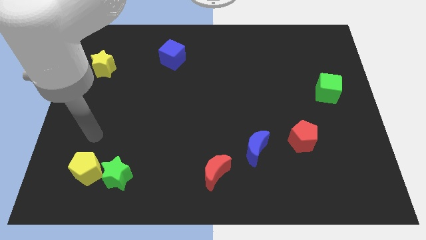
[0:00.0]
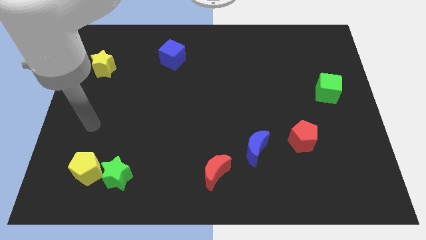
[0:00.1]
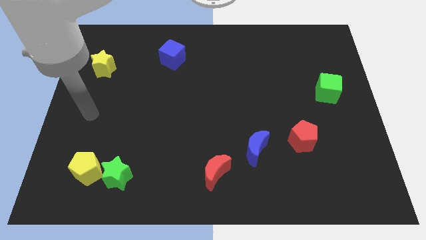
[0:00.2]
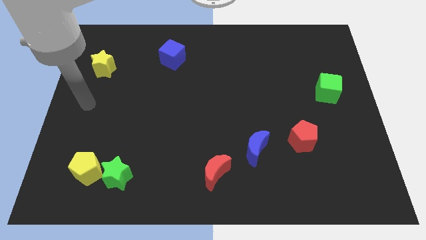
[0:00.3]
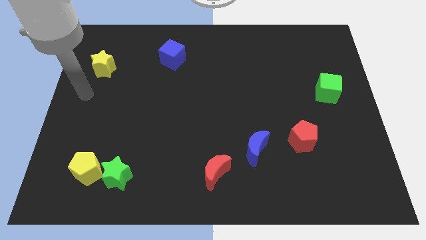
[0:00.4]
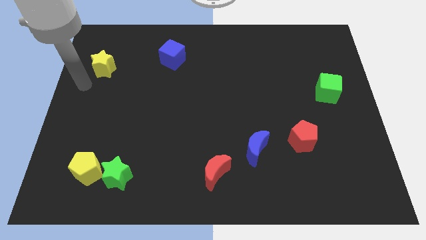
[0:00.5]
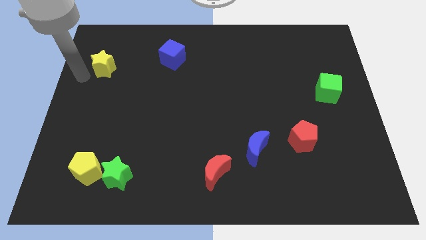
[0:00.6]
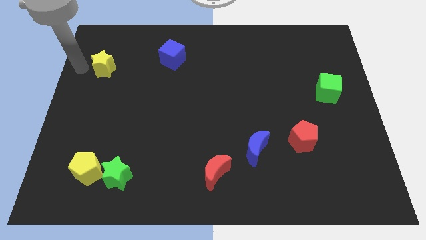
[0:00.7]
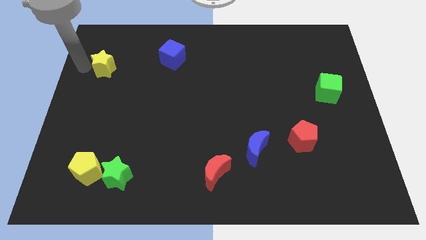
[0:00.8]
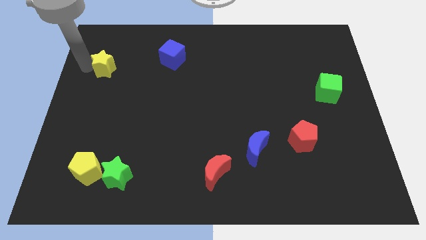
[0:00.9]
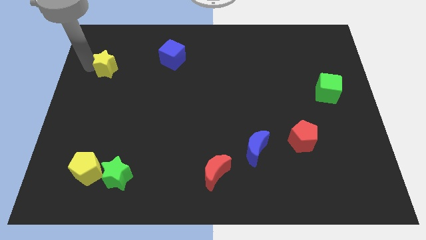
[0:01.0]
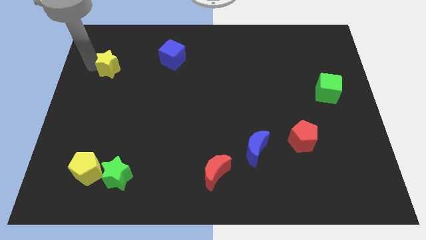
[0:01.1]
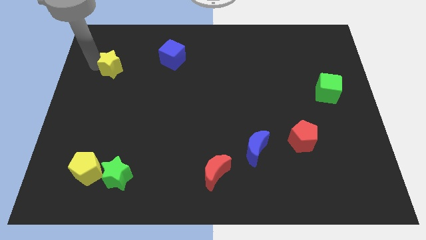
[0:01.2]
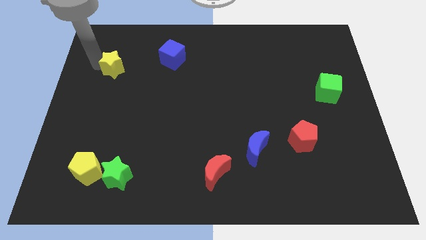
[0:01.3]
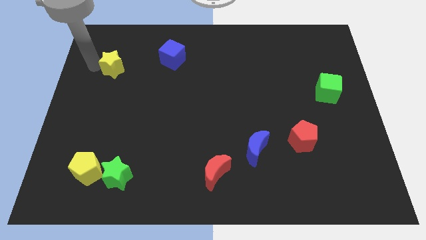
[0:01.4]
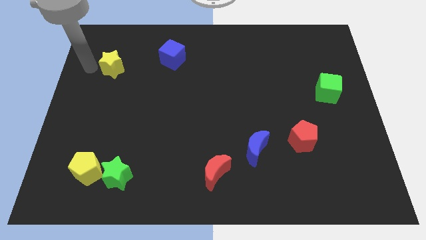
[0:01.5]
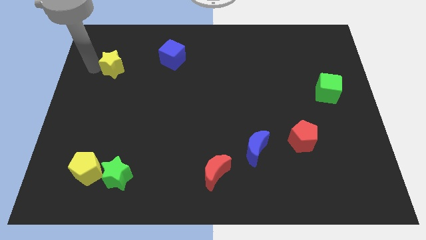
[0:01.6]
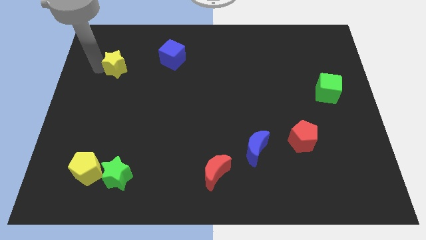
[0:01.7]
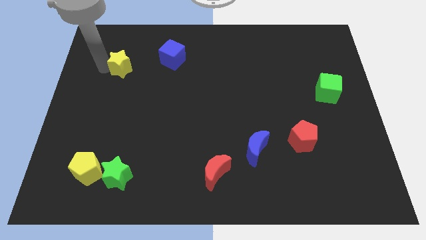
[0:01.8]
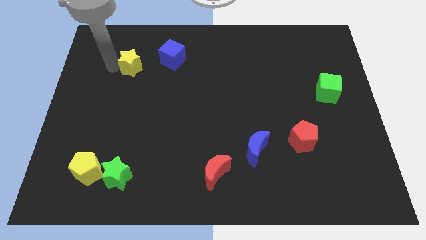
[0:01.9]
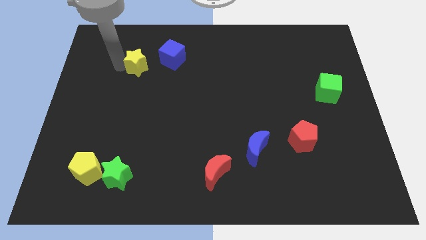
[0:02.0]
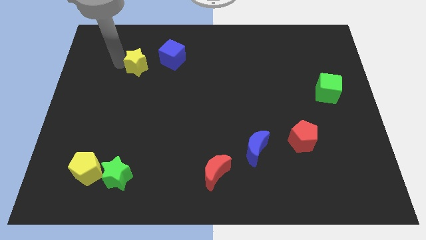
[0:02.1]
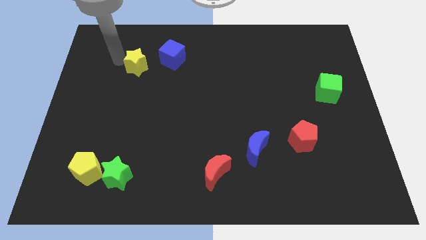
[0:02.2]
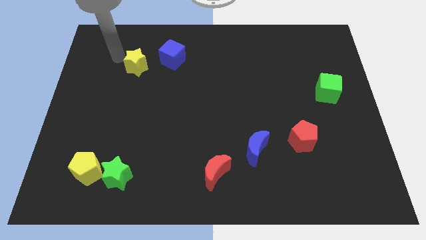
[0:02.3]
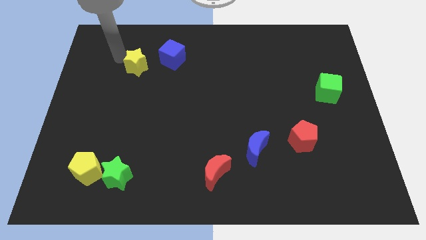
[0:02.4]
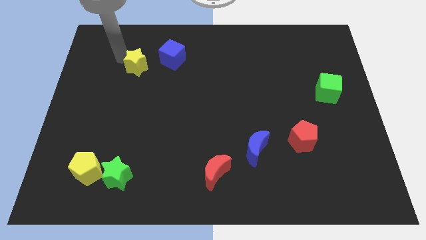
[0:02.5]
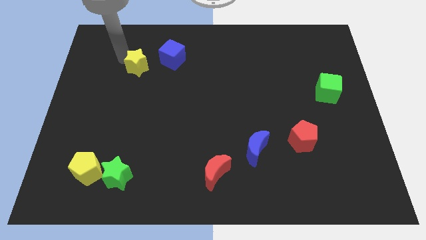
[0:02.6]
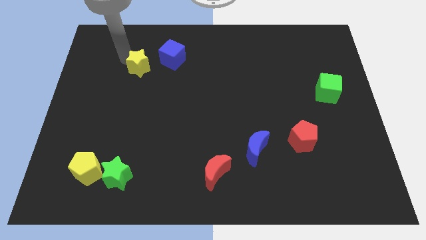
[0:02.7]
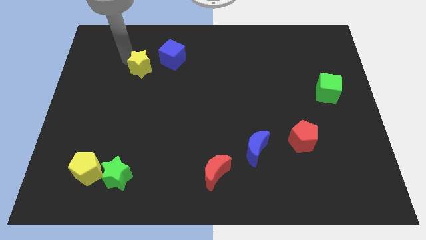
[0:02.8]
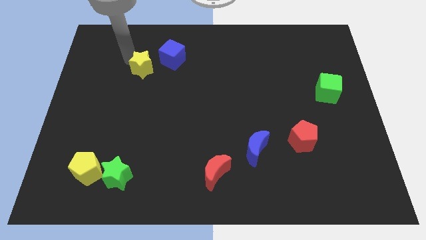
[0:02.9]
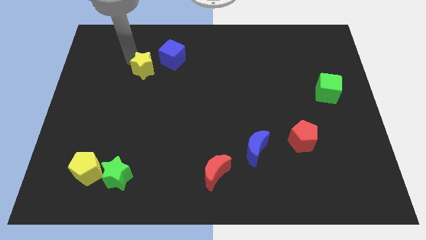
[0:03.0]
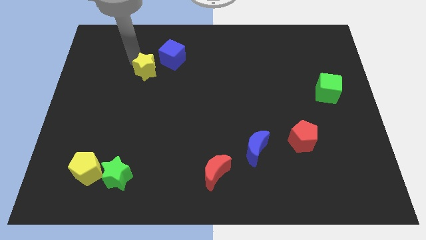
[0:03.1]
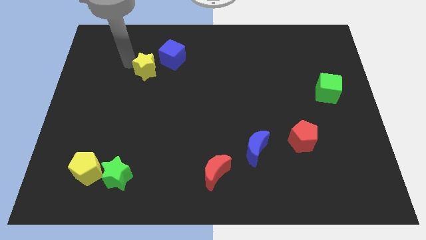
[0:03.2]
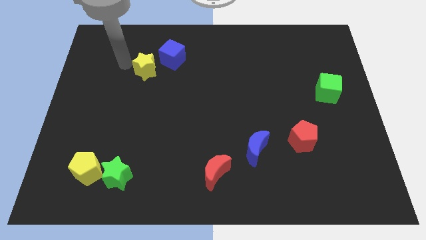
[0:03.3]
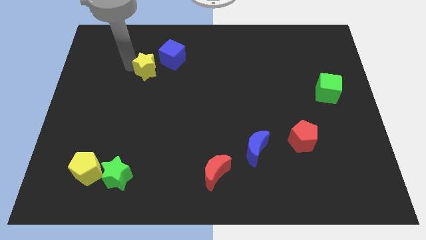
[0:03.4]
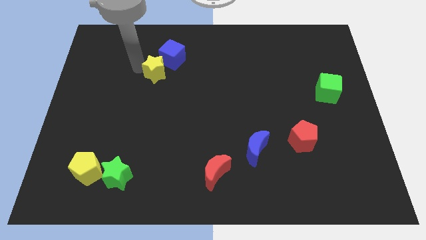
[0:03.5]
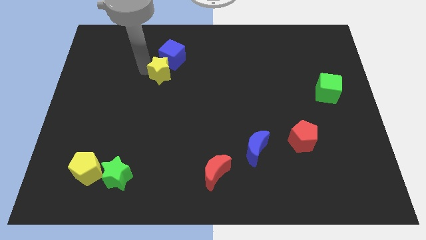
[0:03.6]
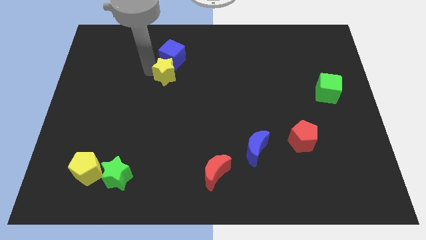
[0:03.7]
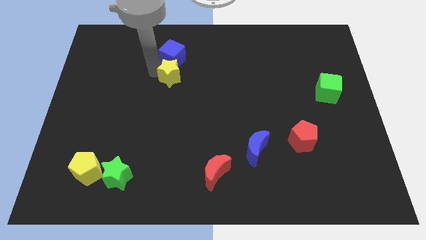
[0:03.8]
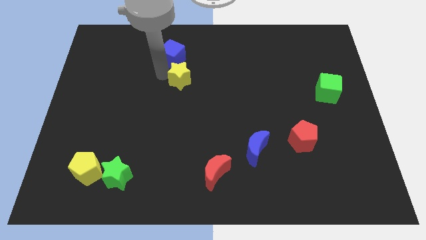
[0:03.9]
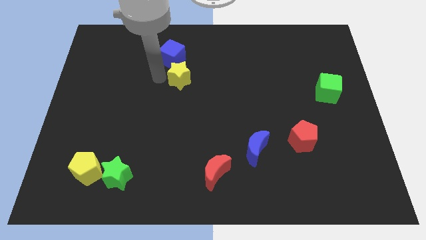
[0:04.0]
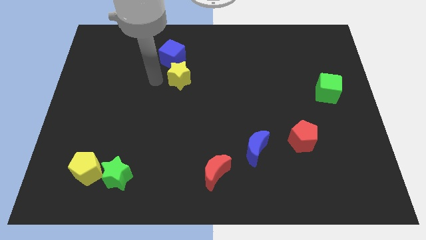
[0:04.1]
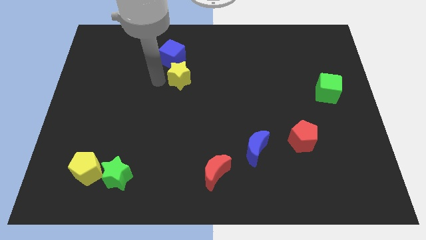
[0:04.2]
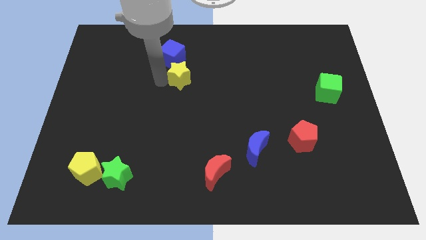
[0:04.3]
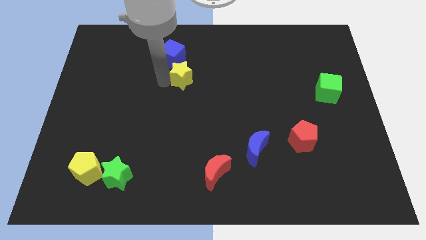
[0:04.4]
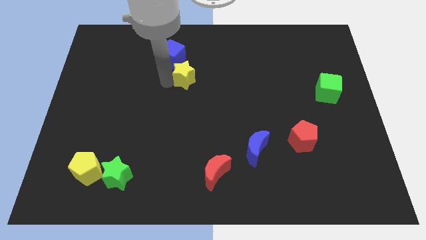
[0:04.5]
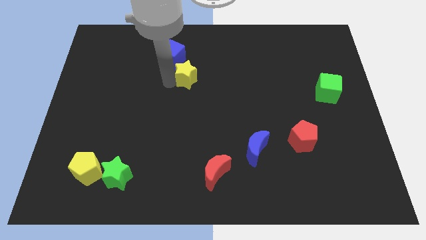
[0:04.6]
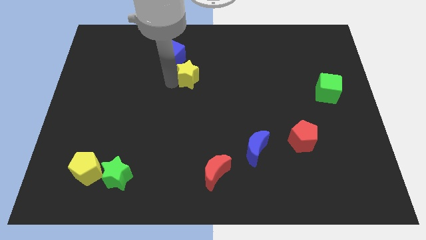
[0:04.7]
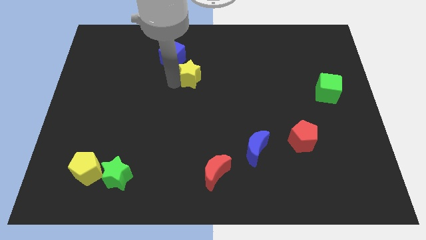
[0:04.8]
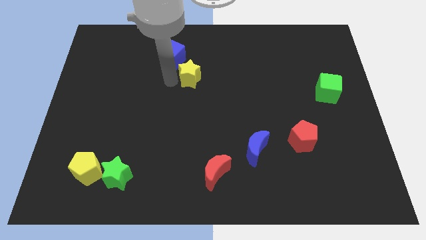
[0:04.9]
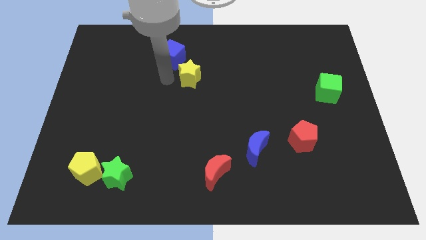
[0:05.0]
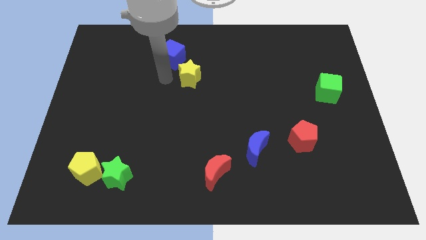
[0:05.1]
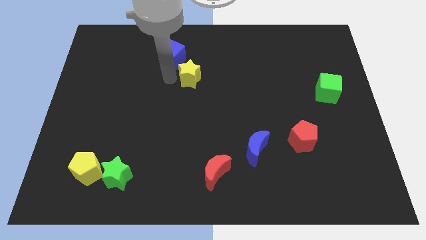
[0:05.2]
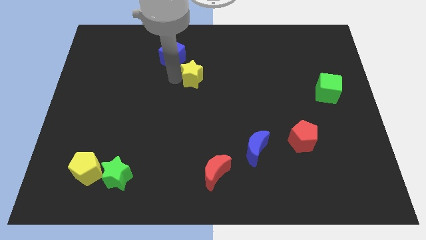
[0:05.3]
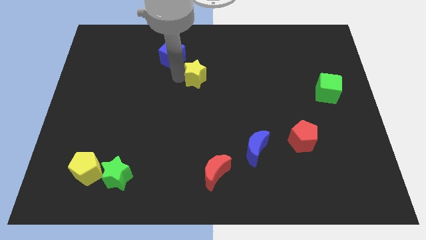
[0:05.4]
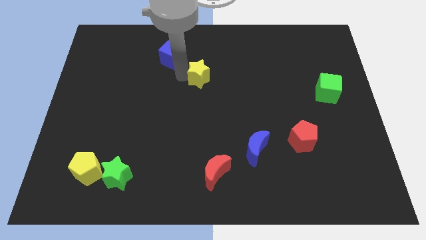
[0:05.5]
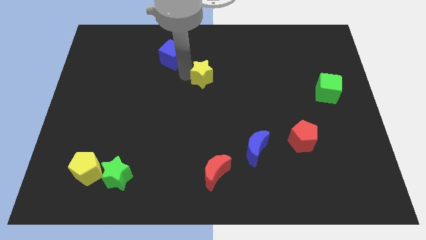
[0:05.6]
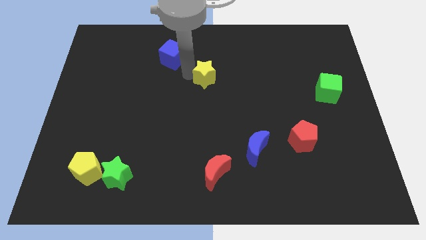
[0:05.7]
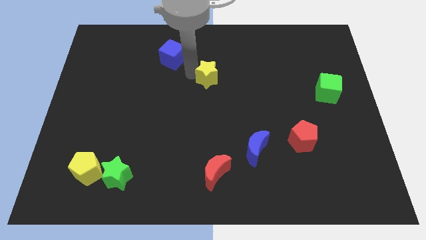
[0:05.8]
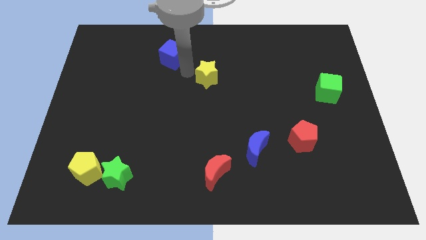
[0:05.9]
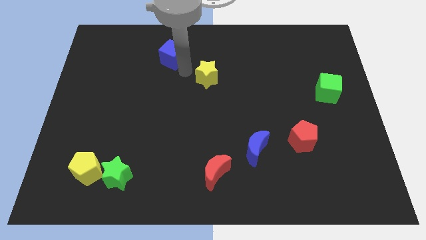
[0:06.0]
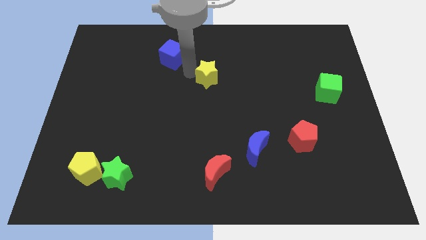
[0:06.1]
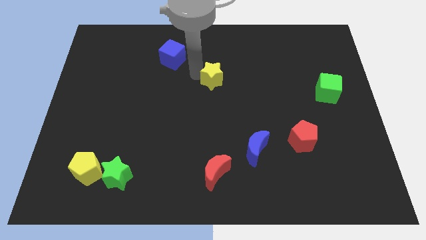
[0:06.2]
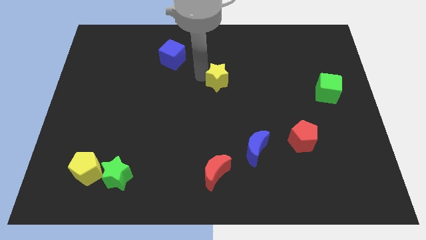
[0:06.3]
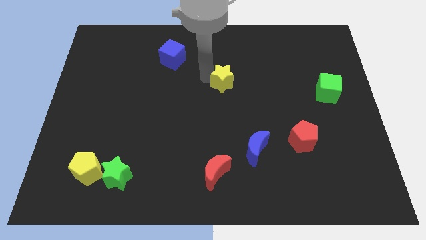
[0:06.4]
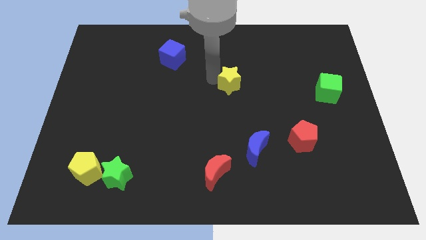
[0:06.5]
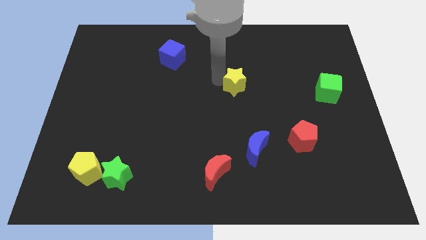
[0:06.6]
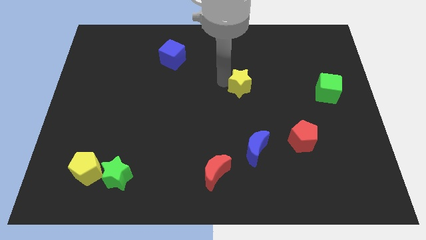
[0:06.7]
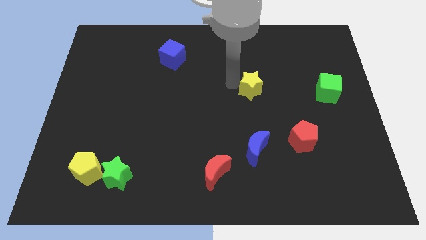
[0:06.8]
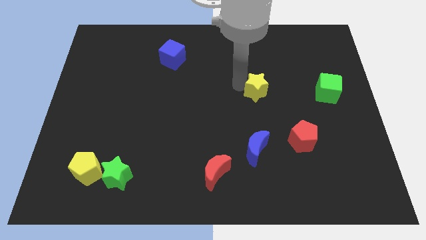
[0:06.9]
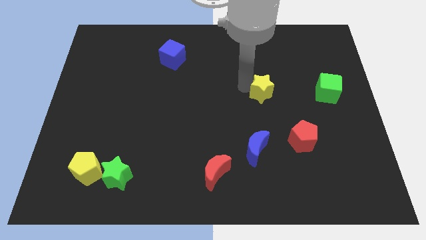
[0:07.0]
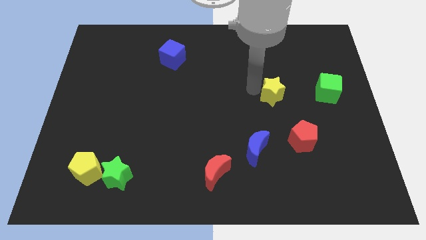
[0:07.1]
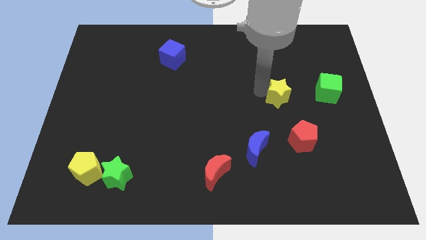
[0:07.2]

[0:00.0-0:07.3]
put the yellow star to the top of the red pentagon
